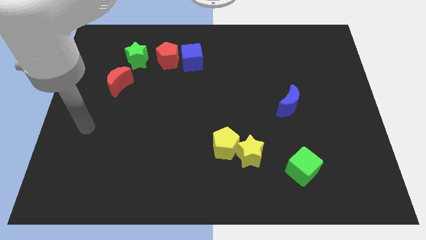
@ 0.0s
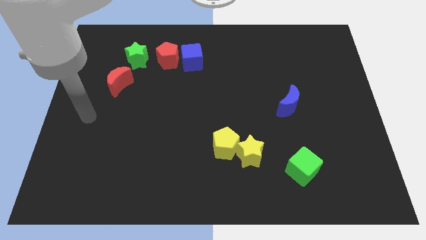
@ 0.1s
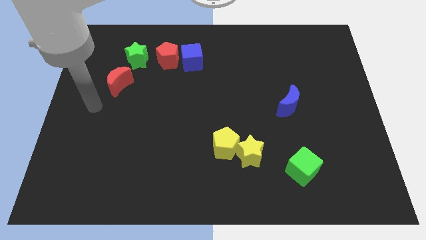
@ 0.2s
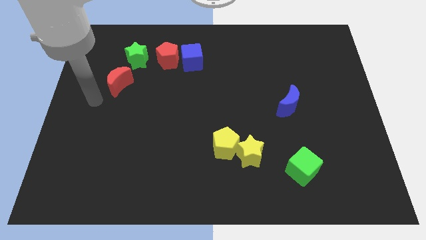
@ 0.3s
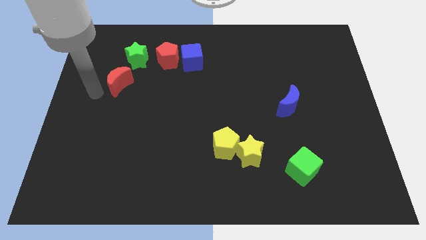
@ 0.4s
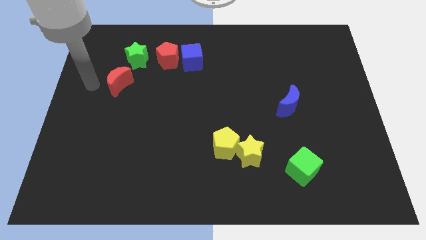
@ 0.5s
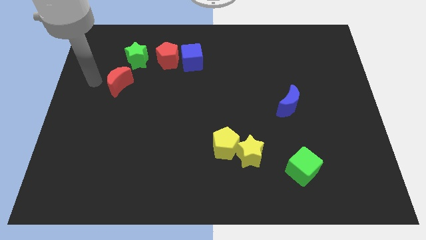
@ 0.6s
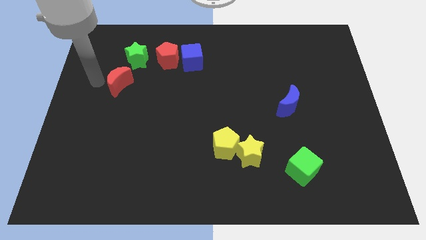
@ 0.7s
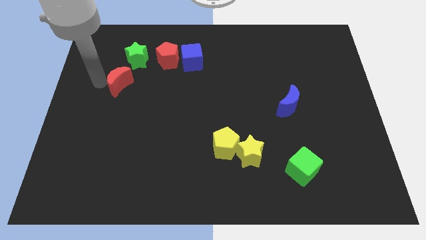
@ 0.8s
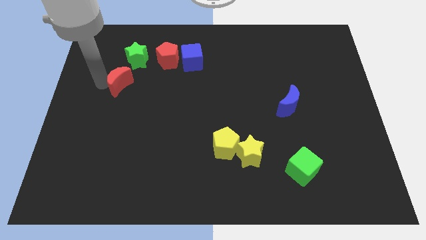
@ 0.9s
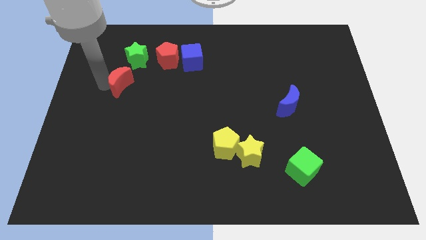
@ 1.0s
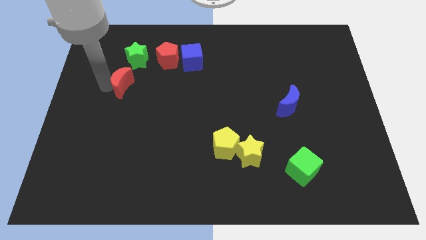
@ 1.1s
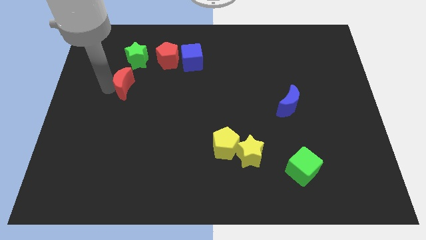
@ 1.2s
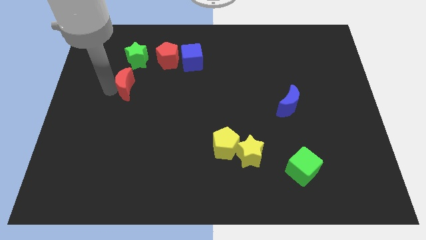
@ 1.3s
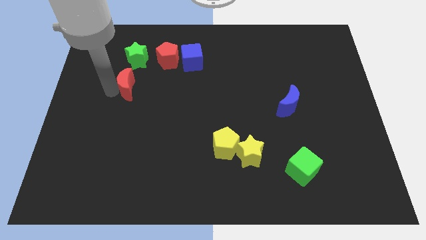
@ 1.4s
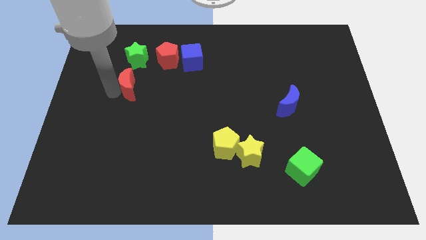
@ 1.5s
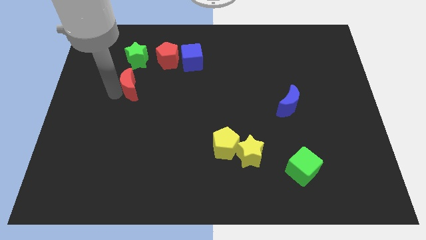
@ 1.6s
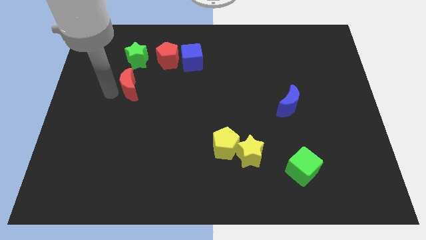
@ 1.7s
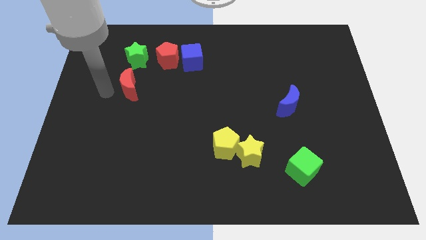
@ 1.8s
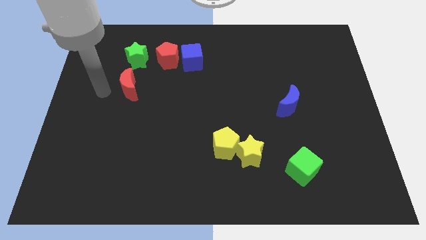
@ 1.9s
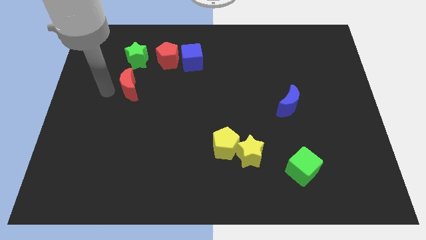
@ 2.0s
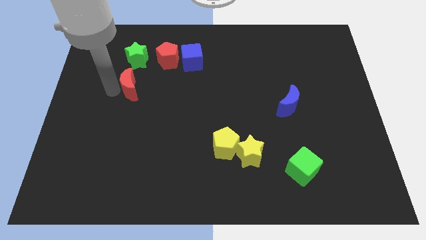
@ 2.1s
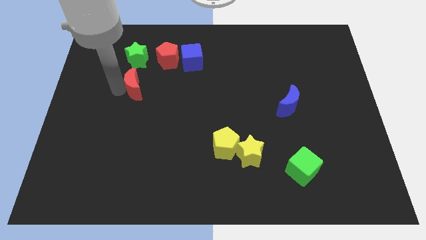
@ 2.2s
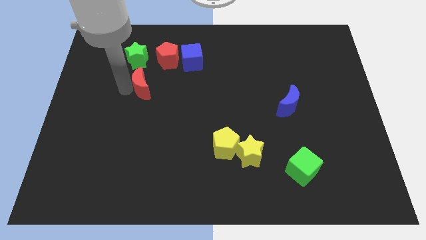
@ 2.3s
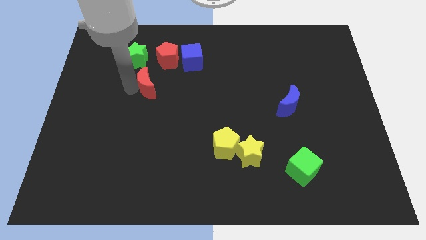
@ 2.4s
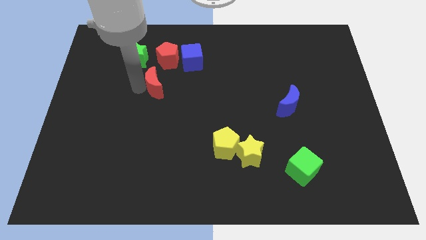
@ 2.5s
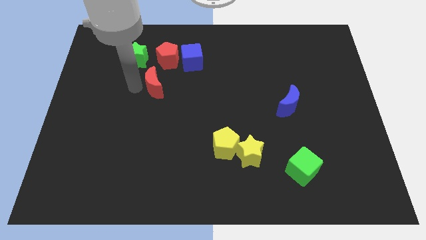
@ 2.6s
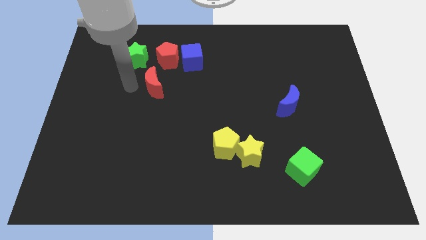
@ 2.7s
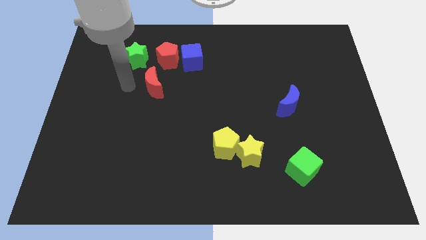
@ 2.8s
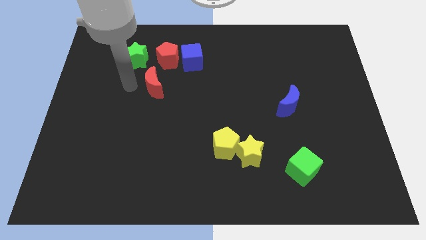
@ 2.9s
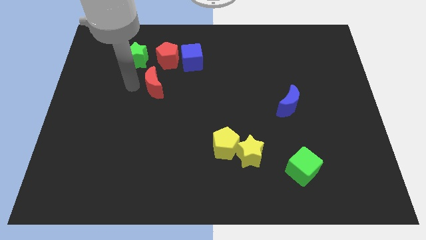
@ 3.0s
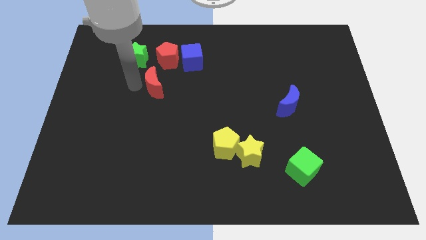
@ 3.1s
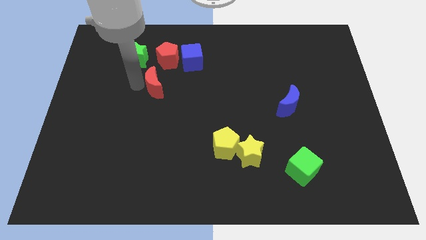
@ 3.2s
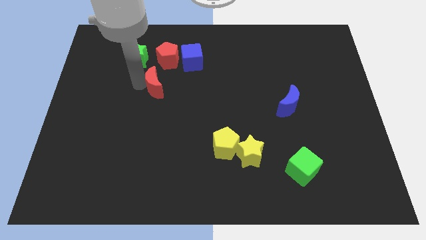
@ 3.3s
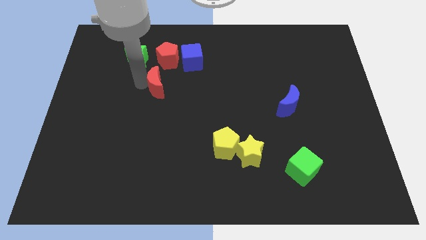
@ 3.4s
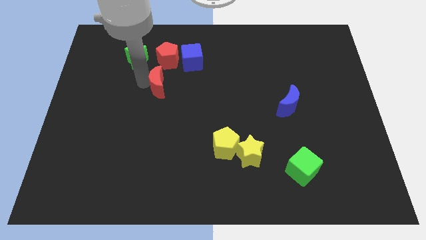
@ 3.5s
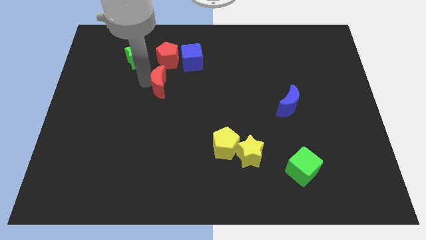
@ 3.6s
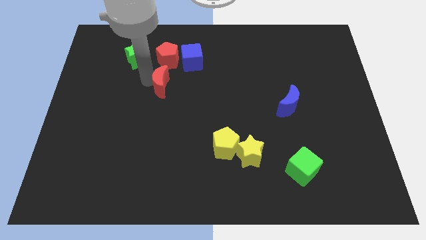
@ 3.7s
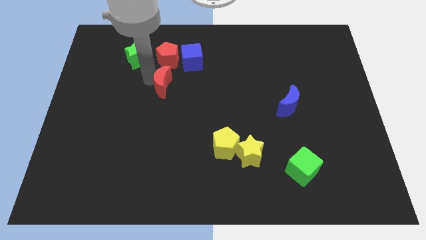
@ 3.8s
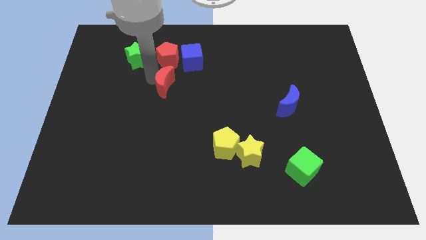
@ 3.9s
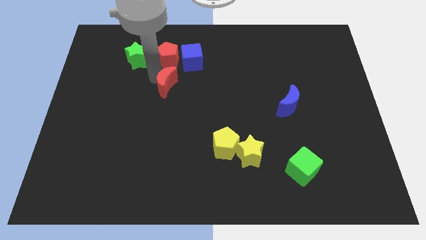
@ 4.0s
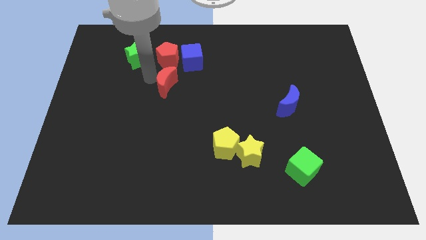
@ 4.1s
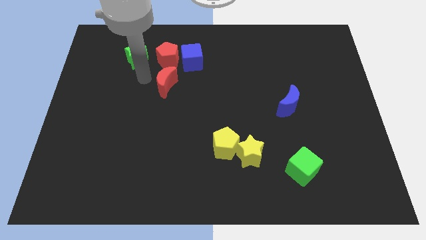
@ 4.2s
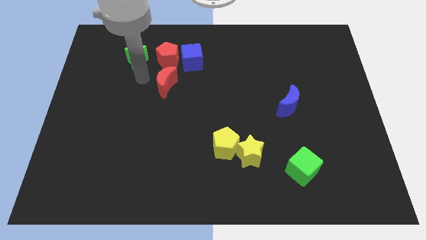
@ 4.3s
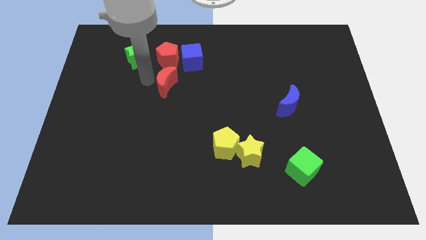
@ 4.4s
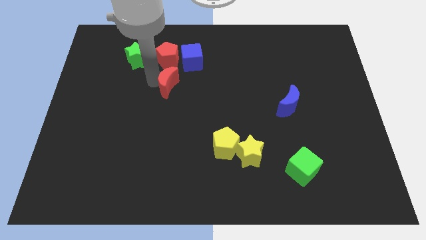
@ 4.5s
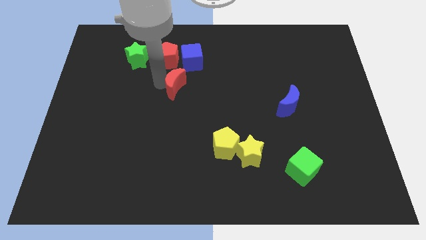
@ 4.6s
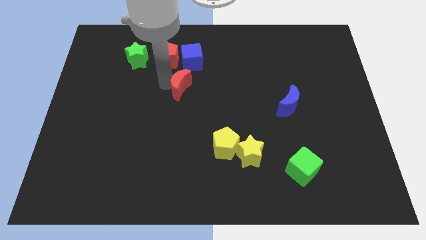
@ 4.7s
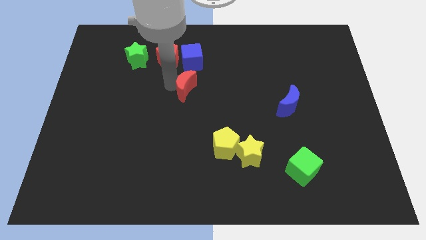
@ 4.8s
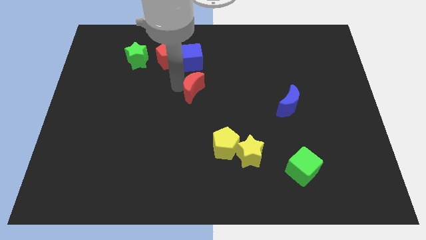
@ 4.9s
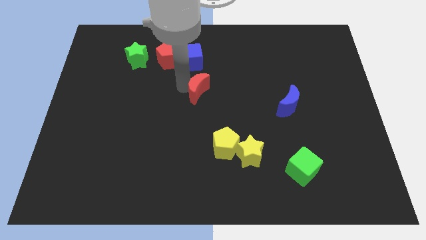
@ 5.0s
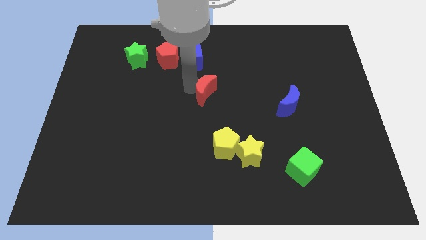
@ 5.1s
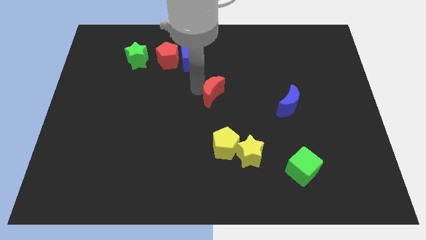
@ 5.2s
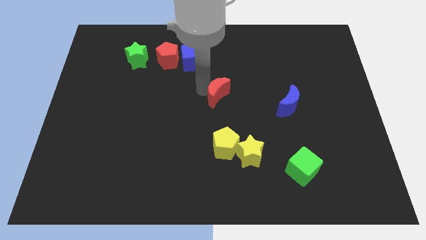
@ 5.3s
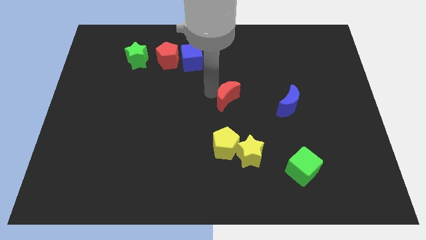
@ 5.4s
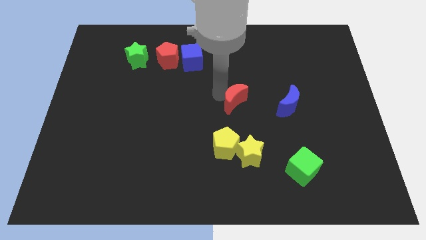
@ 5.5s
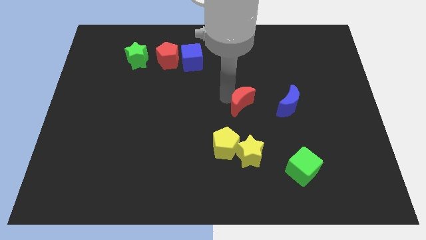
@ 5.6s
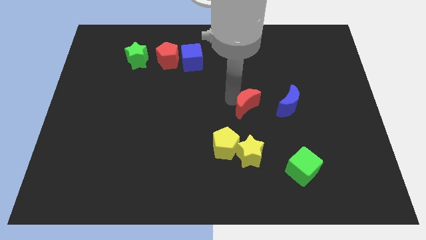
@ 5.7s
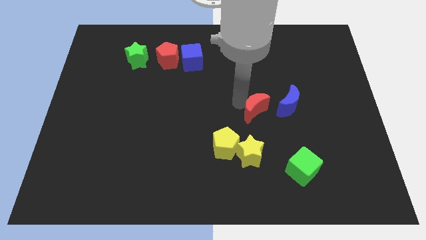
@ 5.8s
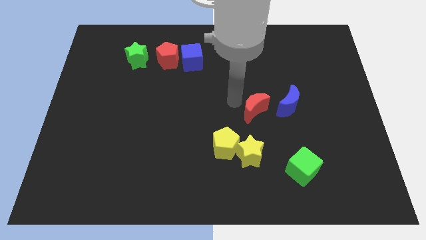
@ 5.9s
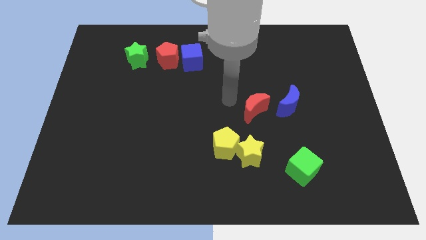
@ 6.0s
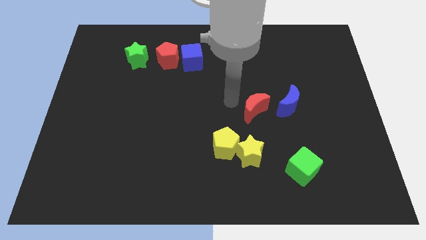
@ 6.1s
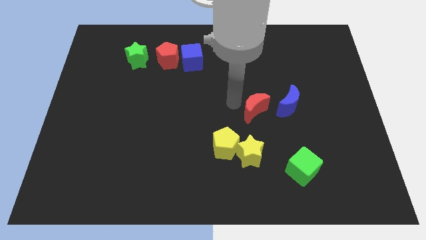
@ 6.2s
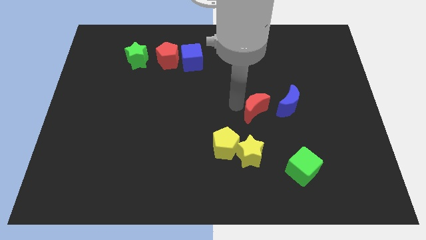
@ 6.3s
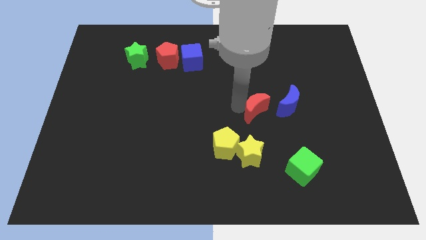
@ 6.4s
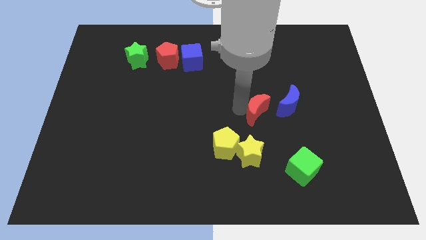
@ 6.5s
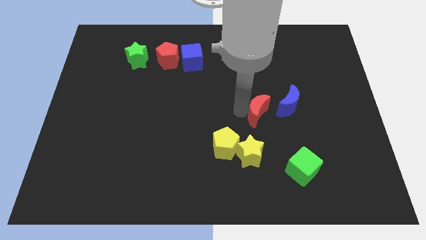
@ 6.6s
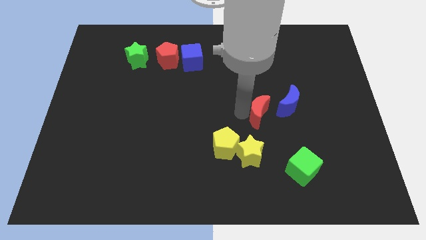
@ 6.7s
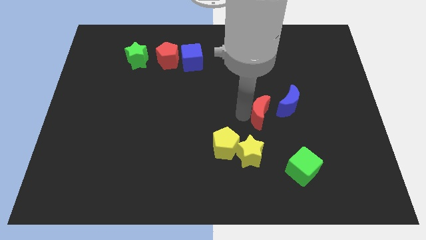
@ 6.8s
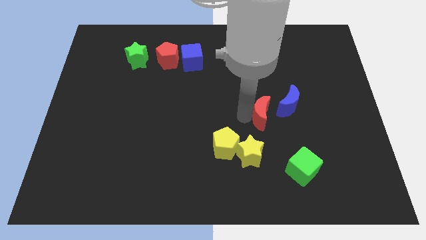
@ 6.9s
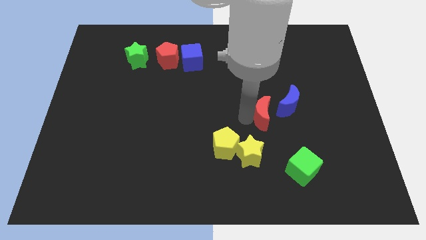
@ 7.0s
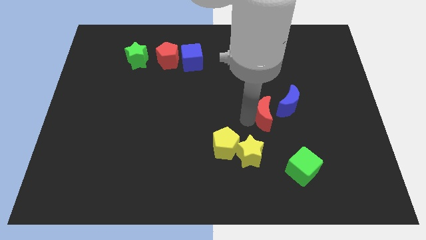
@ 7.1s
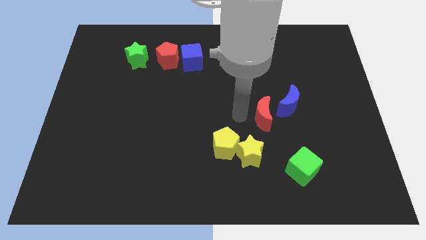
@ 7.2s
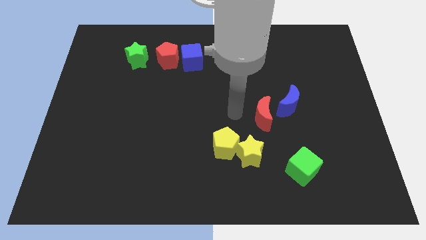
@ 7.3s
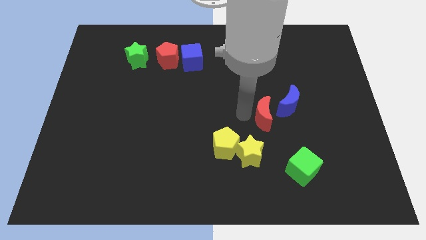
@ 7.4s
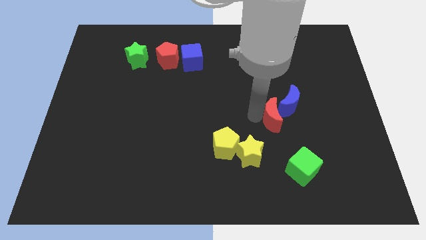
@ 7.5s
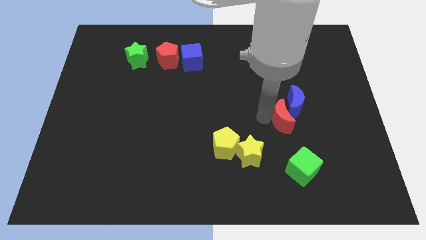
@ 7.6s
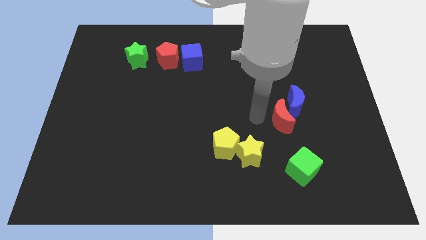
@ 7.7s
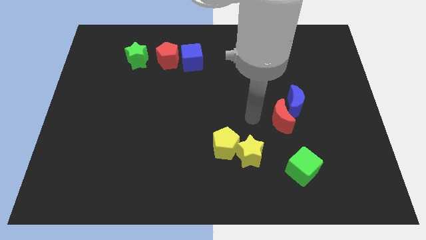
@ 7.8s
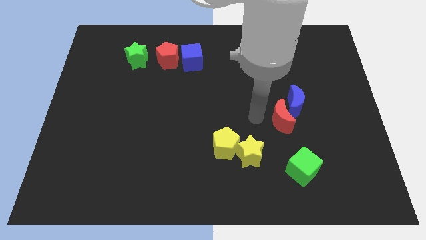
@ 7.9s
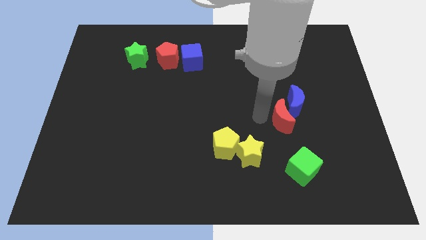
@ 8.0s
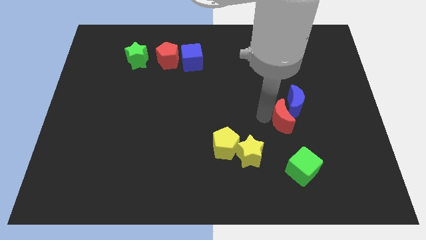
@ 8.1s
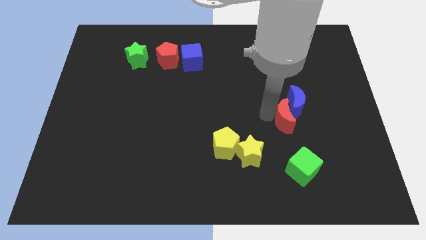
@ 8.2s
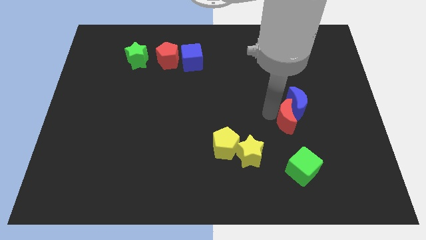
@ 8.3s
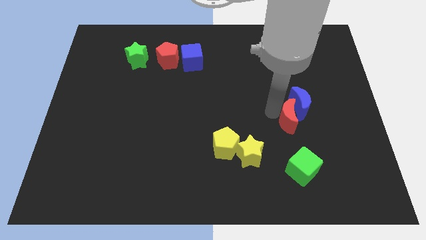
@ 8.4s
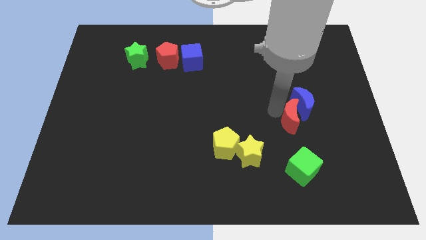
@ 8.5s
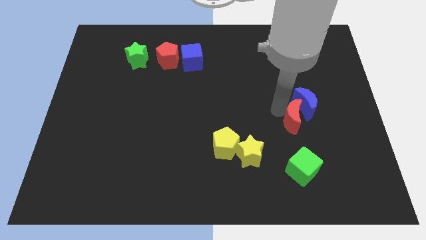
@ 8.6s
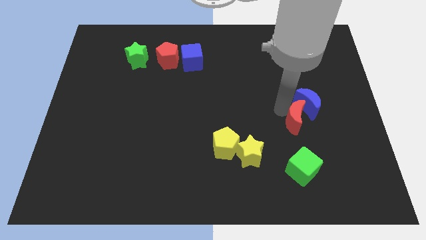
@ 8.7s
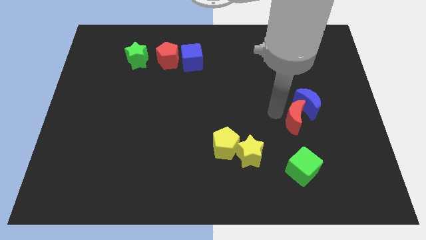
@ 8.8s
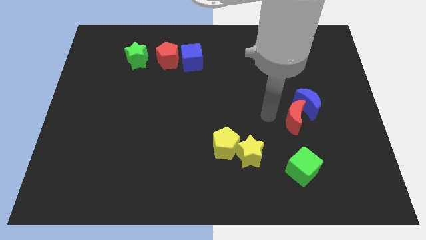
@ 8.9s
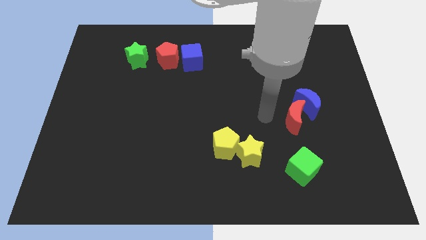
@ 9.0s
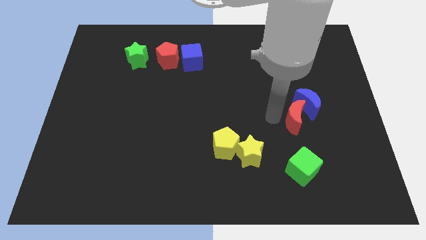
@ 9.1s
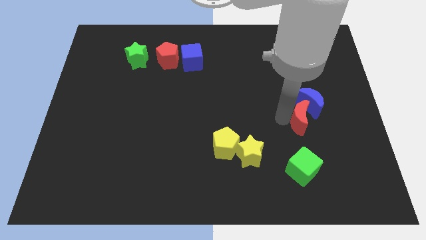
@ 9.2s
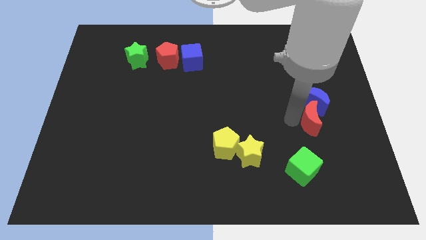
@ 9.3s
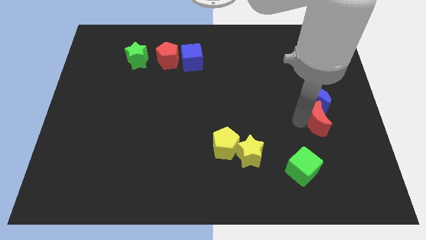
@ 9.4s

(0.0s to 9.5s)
put the red moon to the bottom right side of the blue moon
